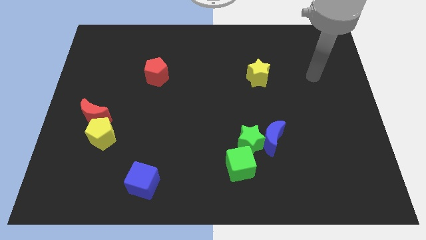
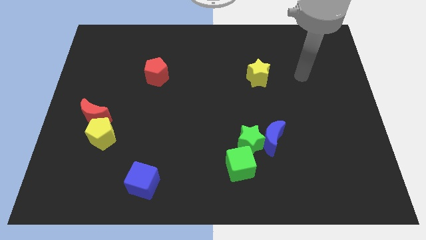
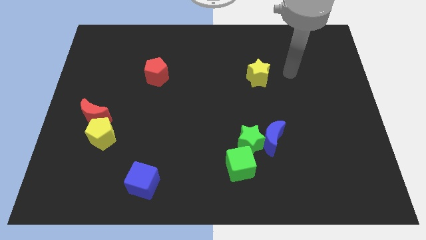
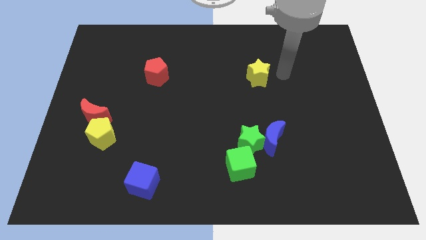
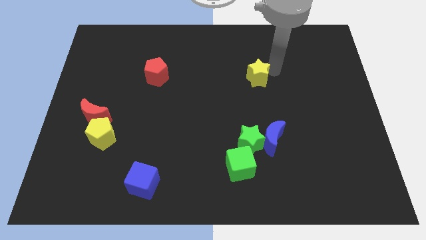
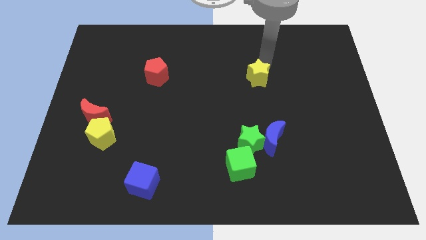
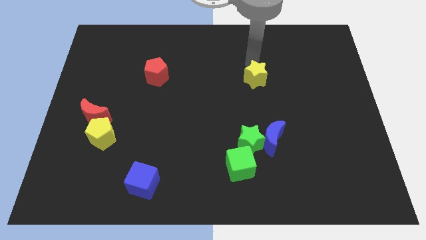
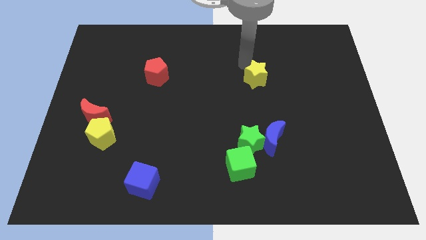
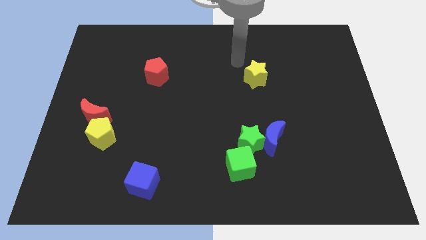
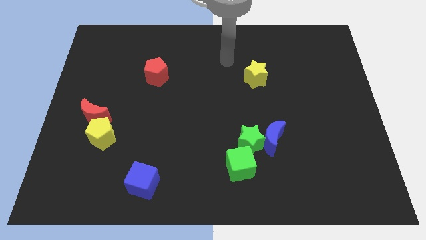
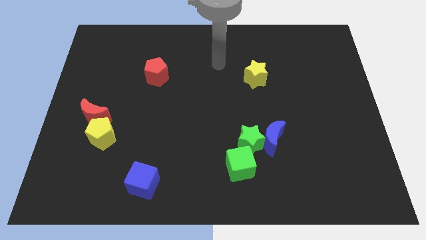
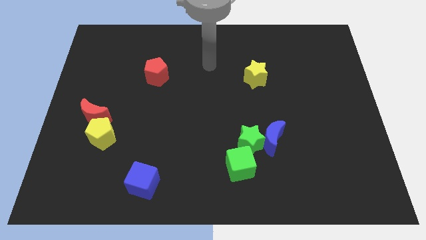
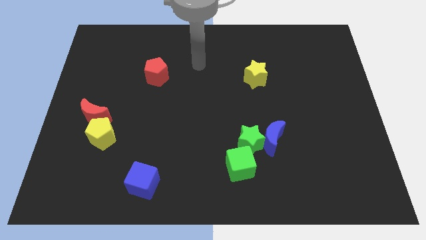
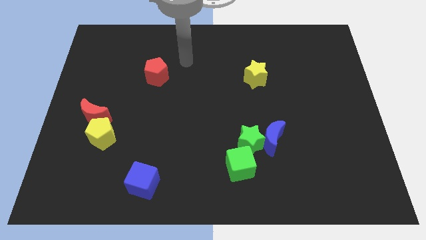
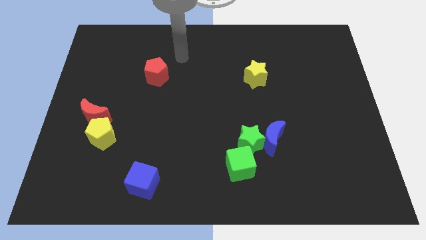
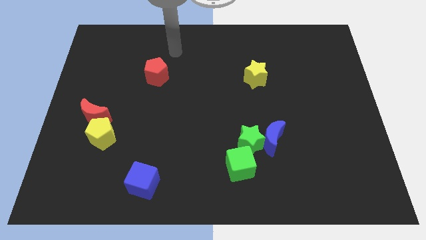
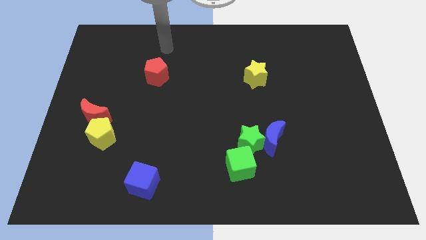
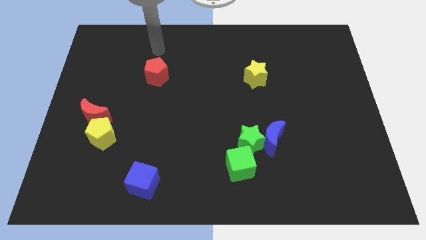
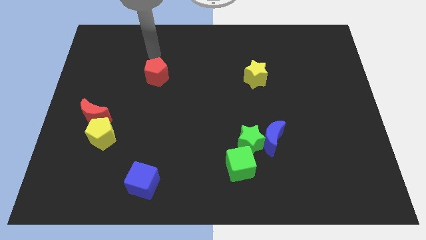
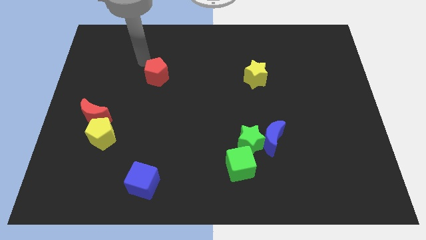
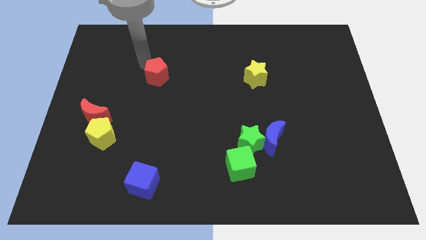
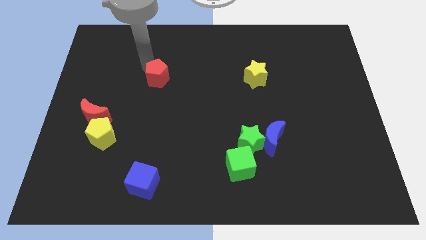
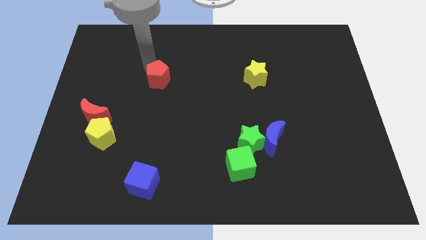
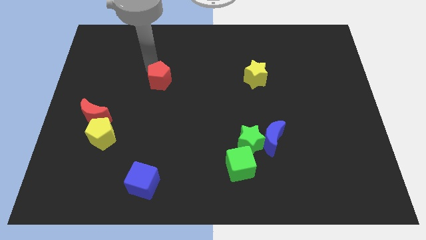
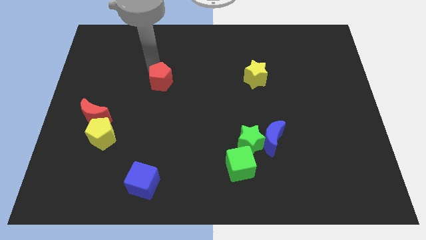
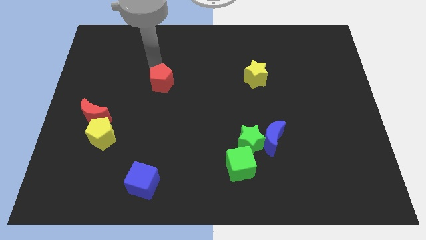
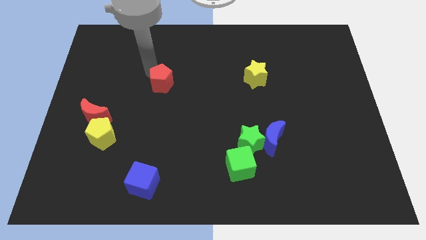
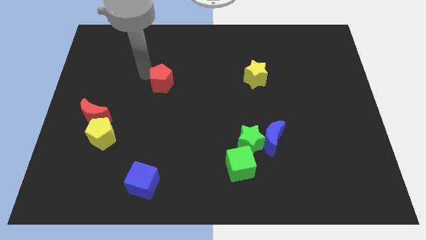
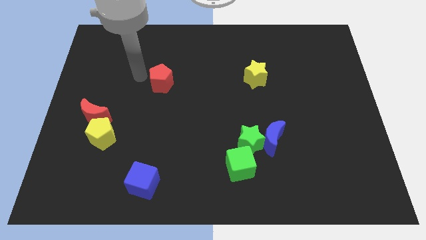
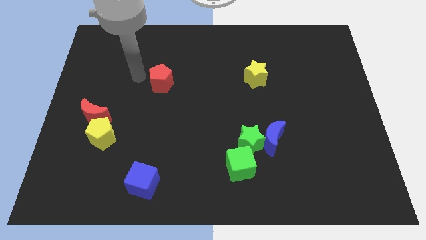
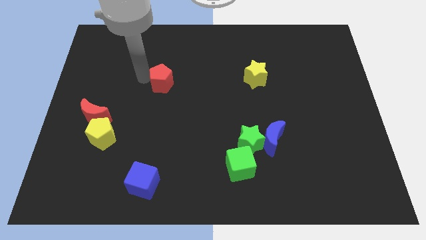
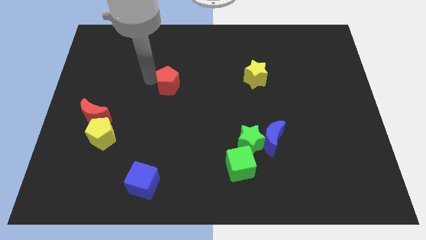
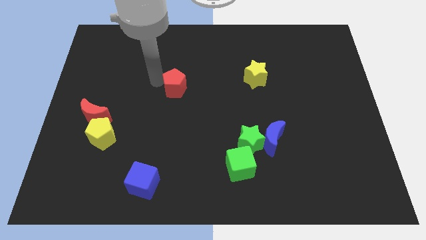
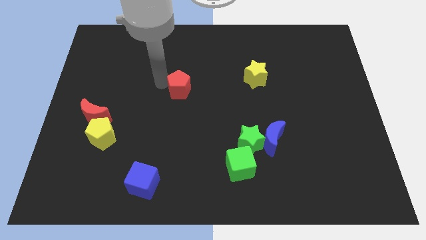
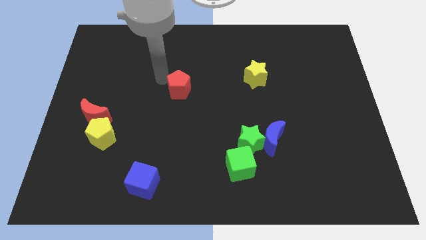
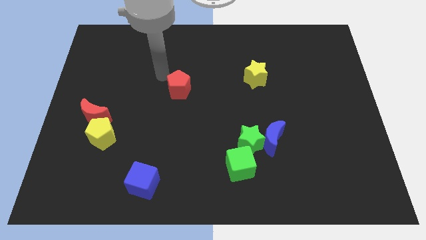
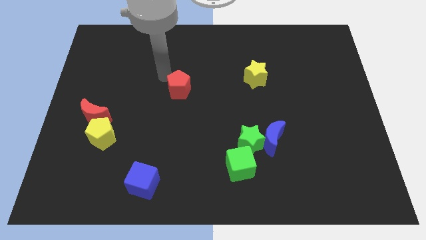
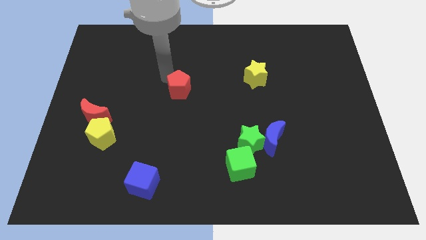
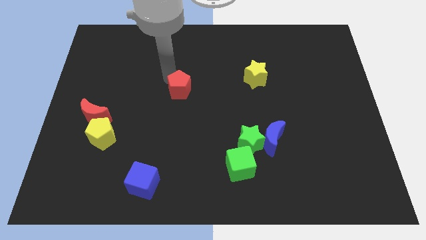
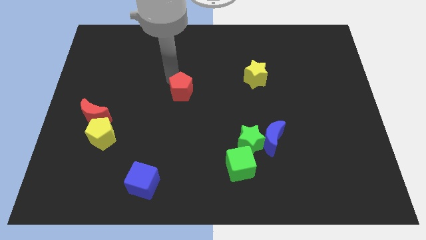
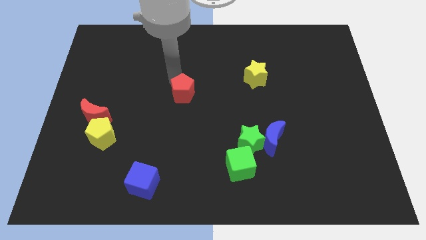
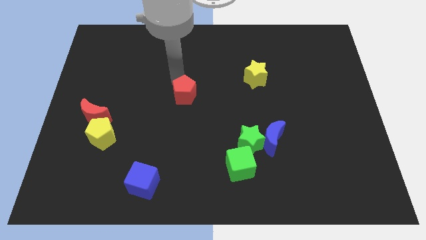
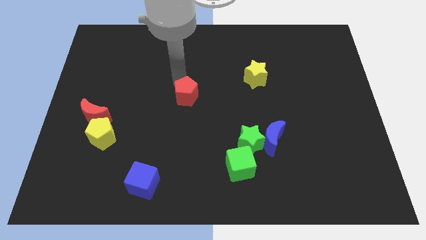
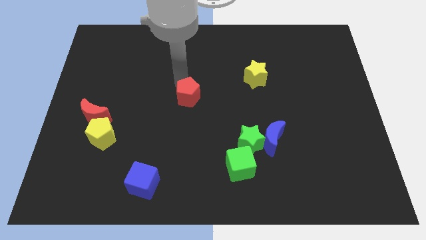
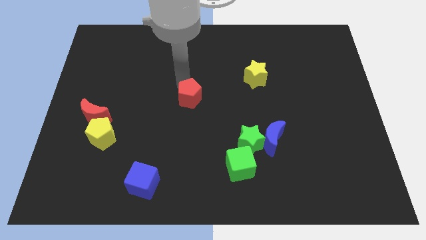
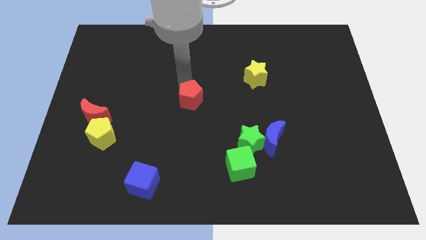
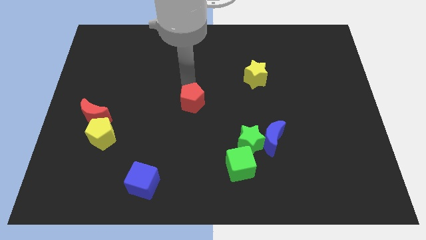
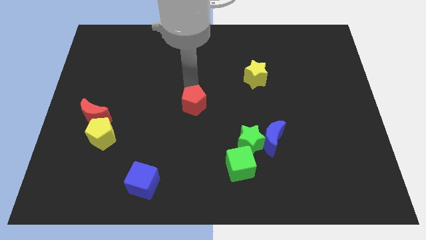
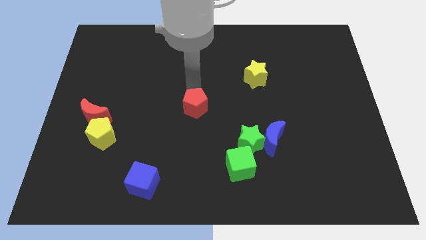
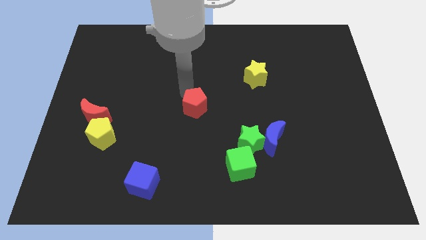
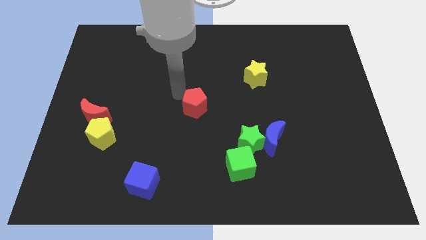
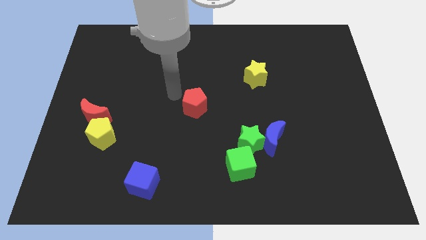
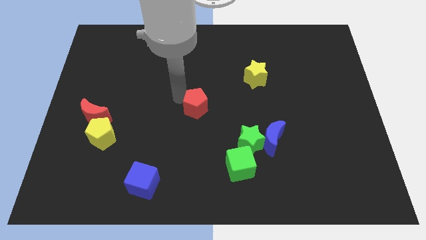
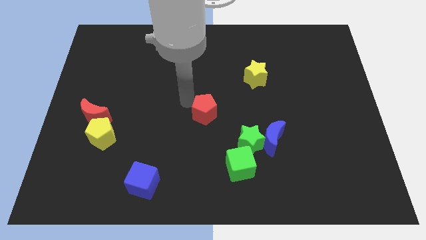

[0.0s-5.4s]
slide the red pentagon to the top left of the green star

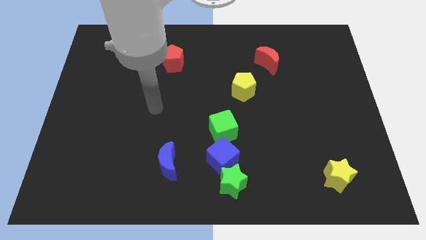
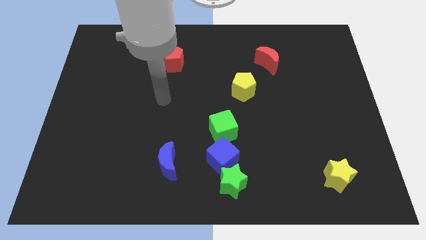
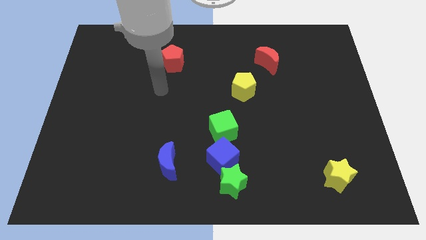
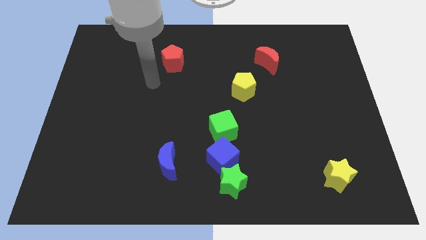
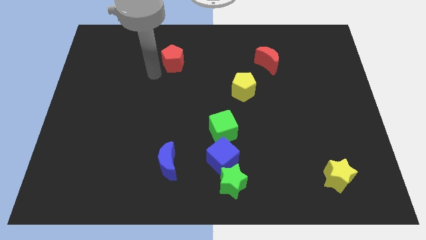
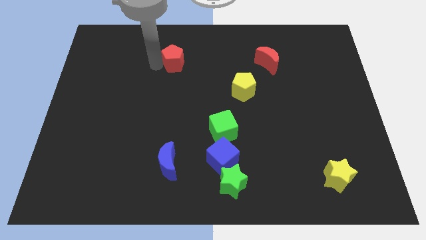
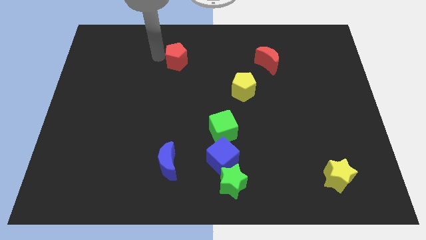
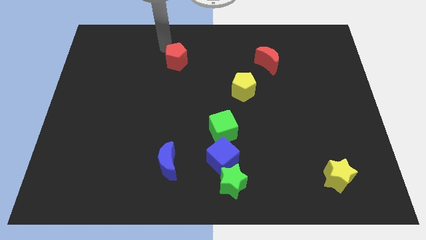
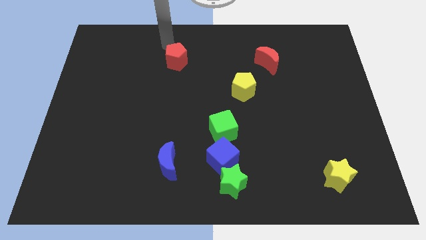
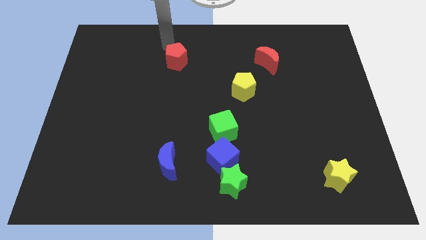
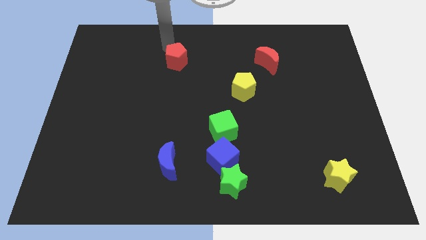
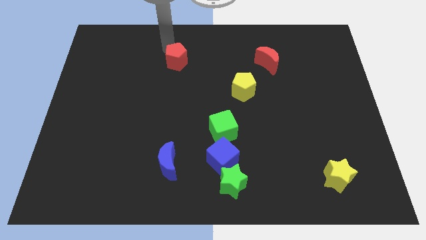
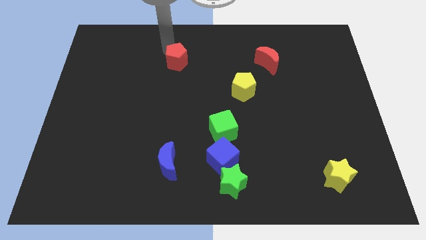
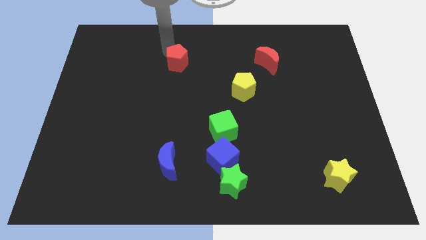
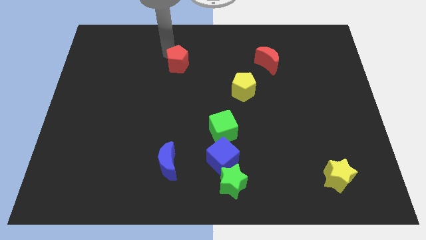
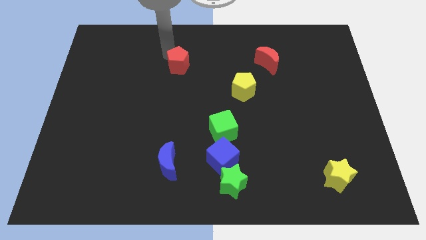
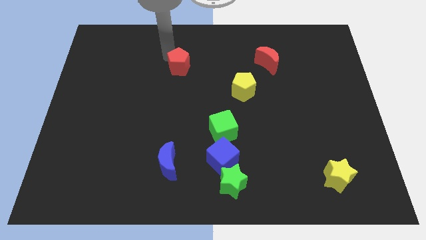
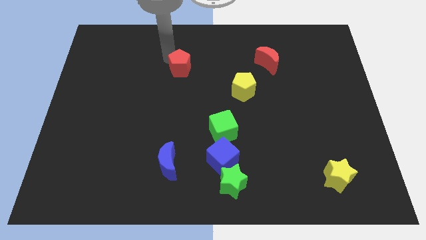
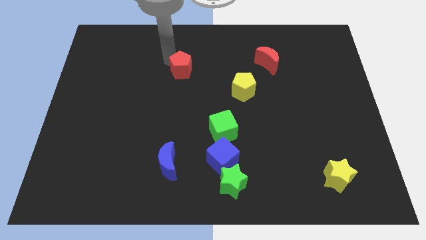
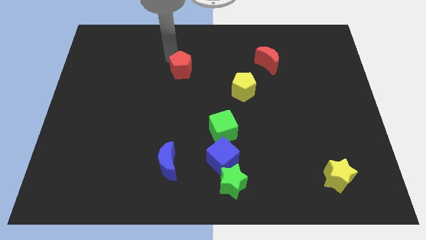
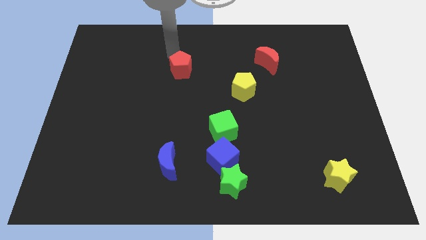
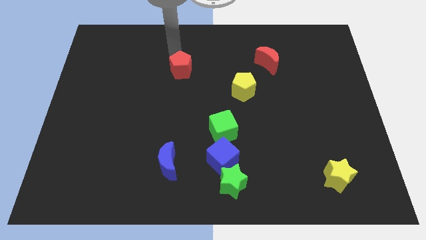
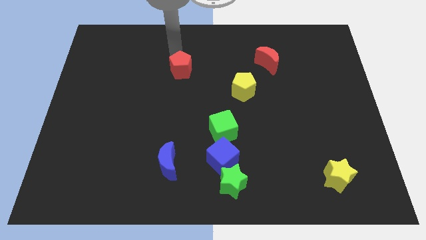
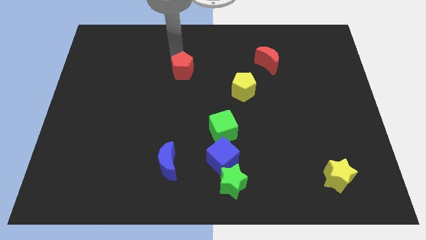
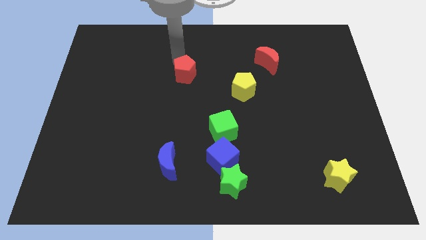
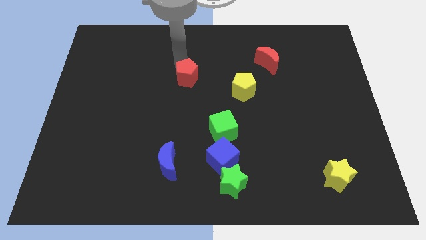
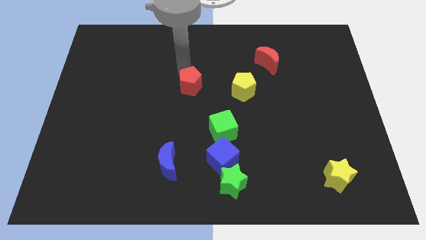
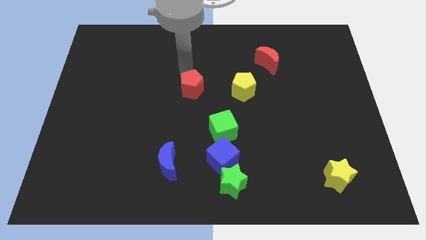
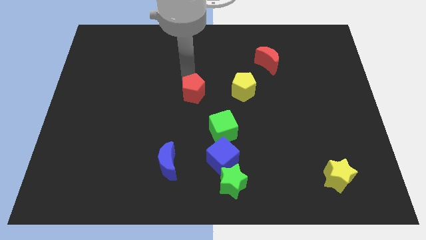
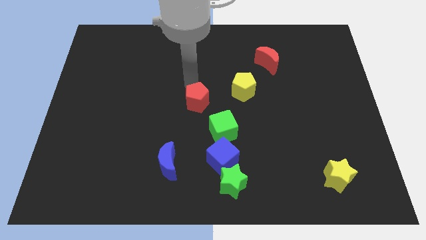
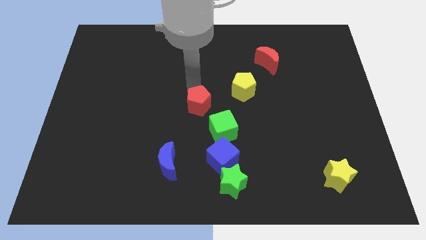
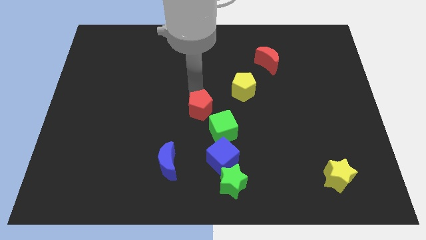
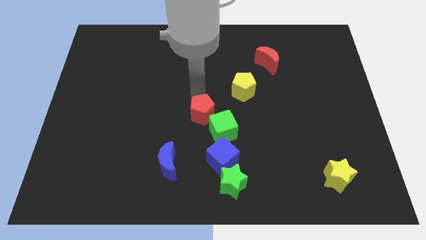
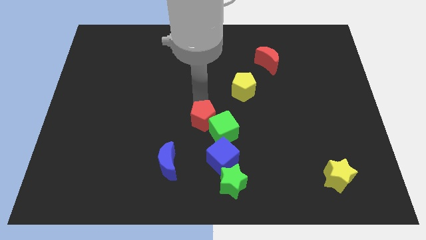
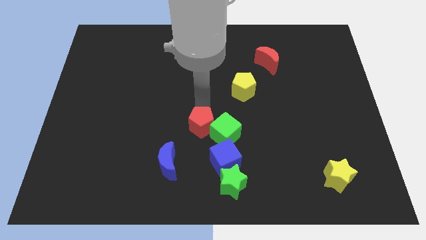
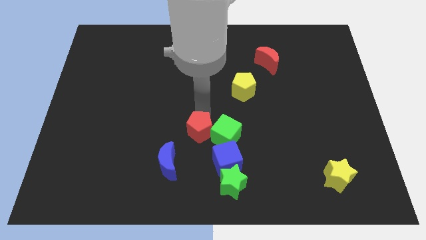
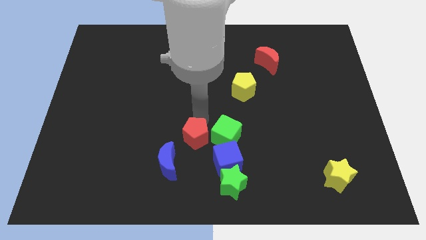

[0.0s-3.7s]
move the red pentagon to the bottom left of the green cube
